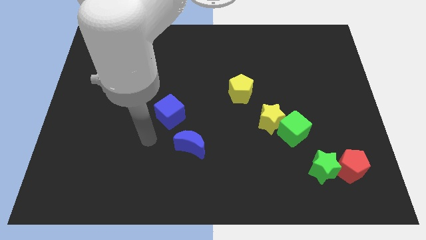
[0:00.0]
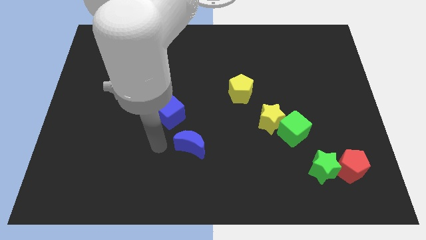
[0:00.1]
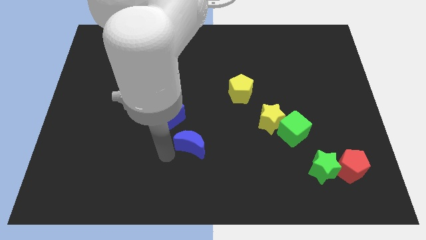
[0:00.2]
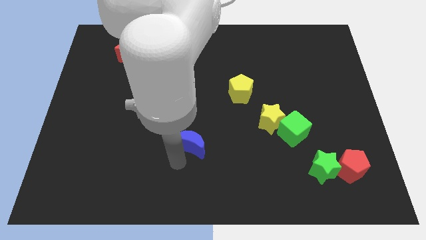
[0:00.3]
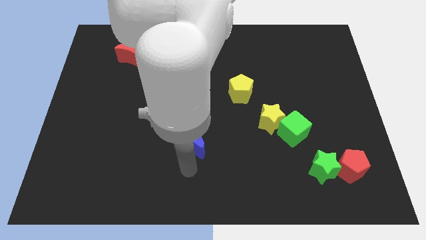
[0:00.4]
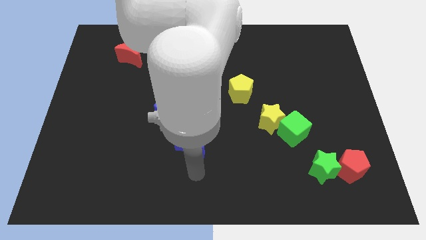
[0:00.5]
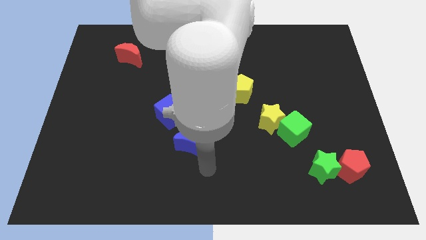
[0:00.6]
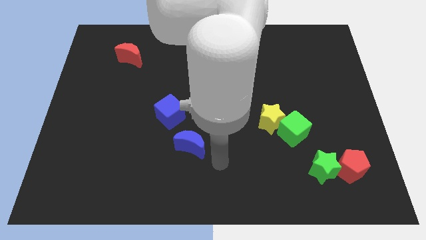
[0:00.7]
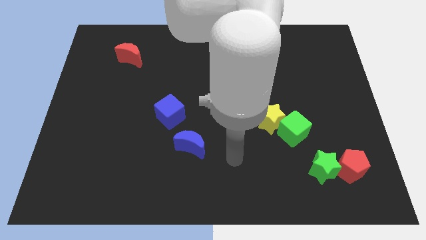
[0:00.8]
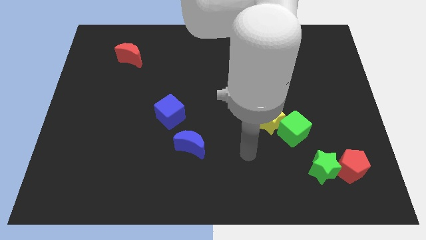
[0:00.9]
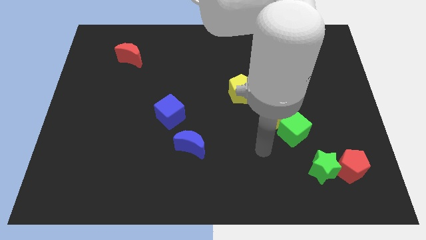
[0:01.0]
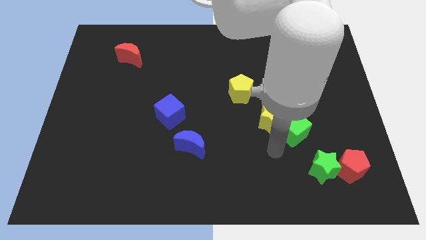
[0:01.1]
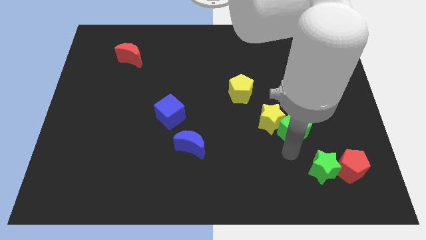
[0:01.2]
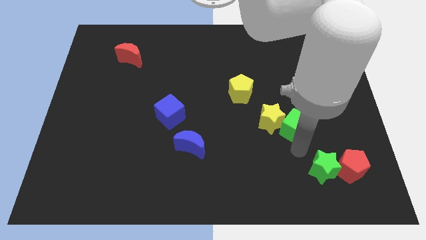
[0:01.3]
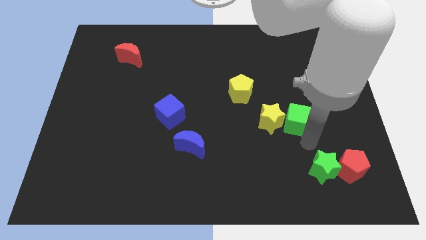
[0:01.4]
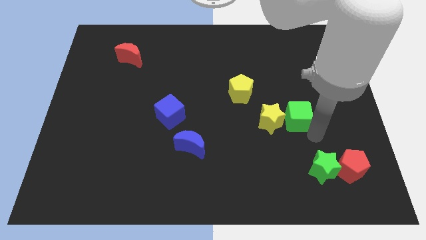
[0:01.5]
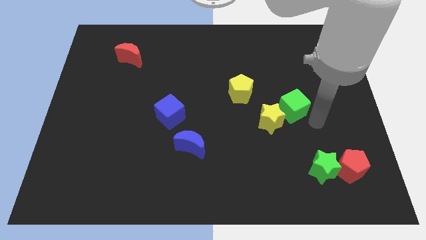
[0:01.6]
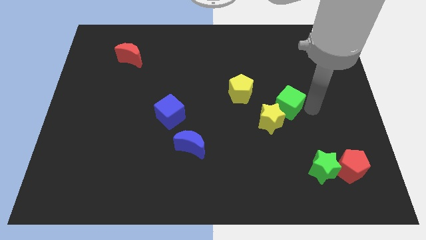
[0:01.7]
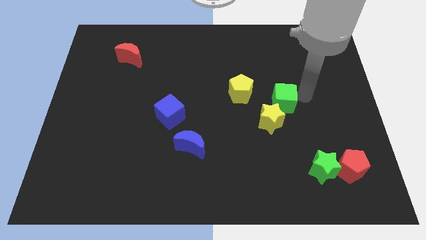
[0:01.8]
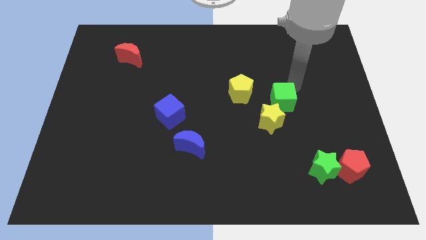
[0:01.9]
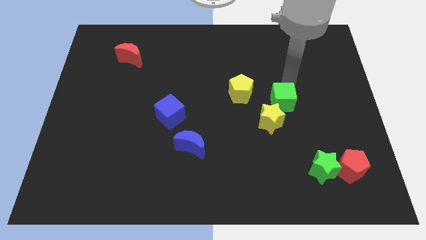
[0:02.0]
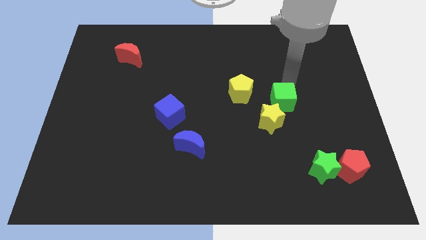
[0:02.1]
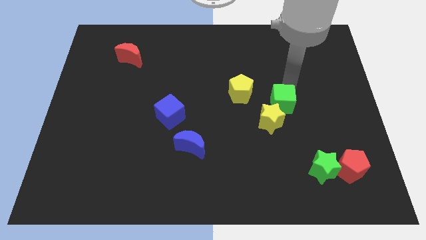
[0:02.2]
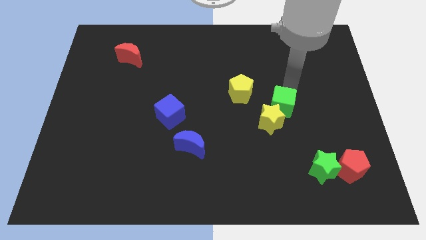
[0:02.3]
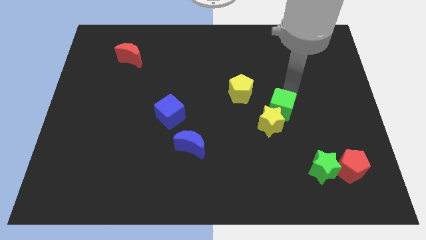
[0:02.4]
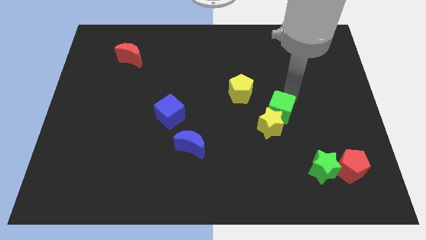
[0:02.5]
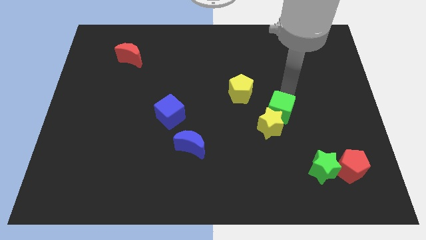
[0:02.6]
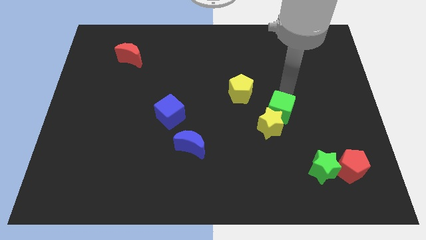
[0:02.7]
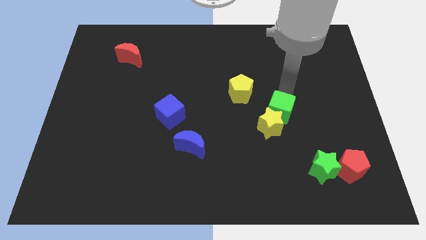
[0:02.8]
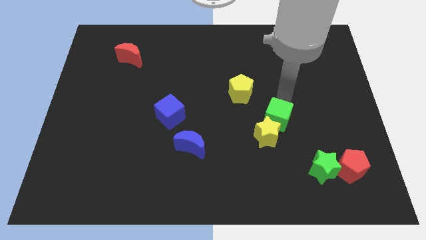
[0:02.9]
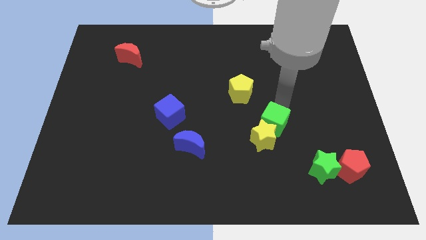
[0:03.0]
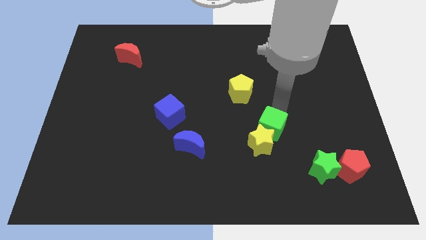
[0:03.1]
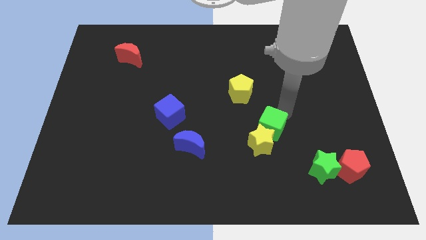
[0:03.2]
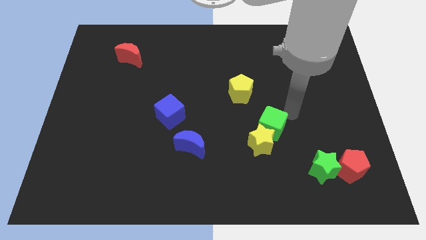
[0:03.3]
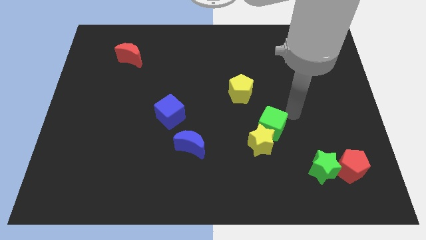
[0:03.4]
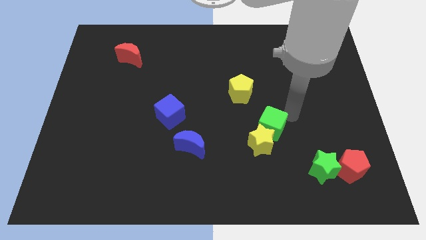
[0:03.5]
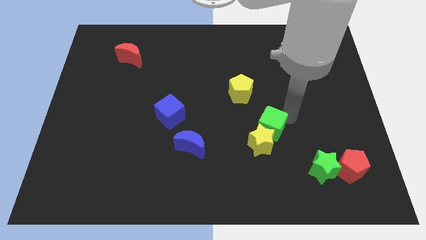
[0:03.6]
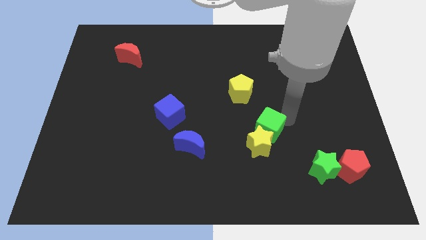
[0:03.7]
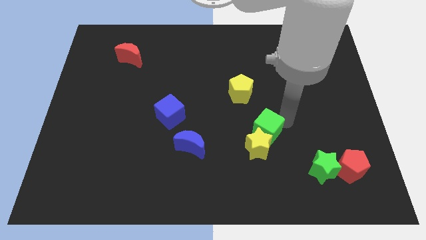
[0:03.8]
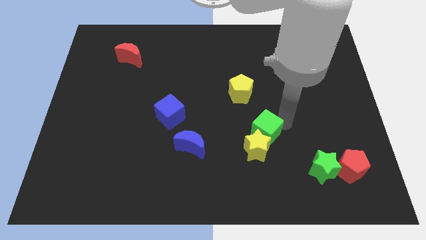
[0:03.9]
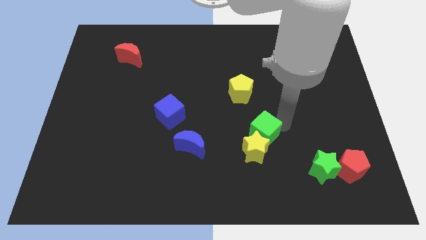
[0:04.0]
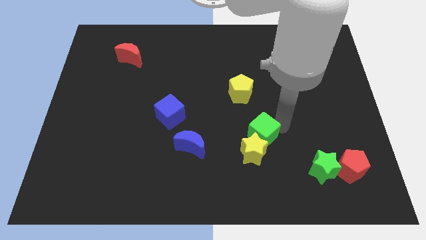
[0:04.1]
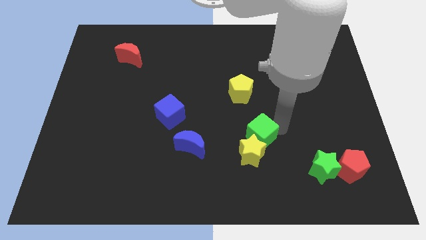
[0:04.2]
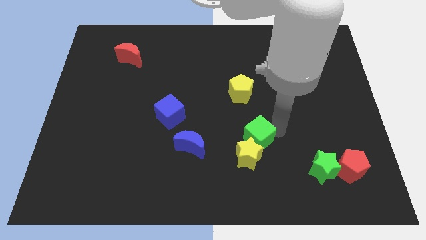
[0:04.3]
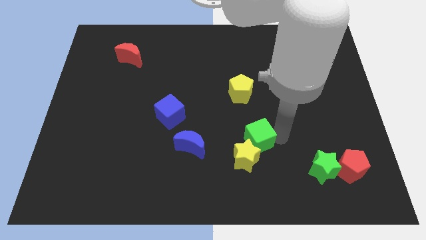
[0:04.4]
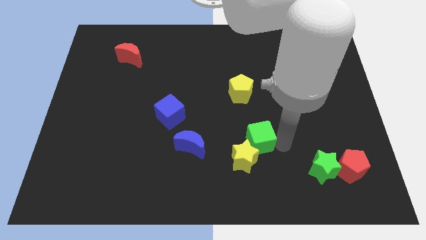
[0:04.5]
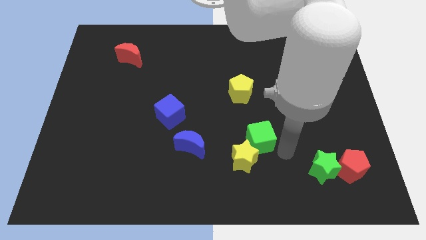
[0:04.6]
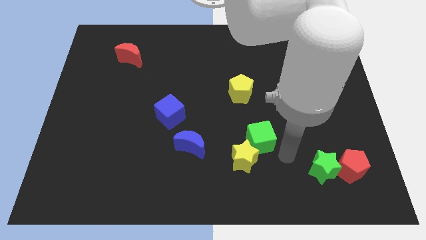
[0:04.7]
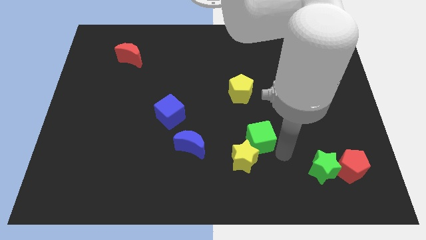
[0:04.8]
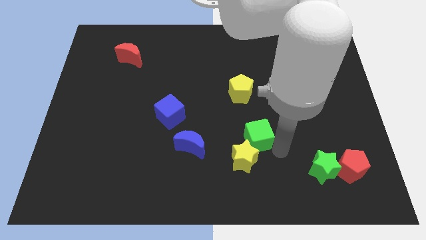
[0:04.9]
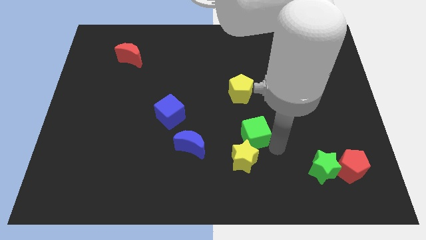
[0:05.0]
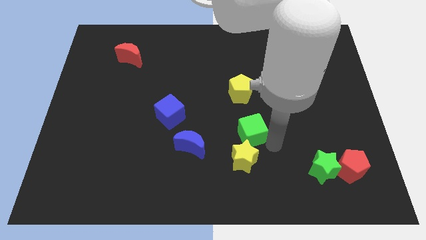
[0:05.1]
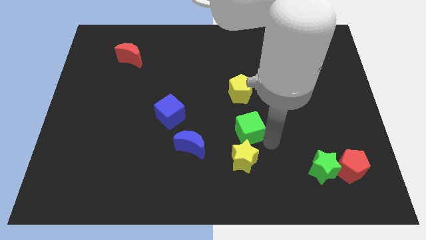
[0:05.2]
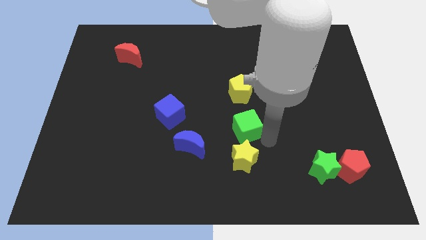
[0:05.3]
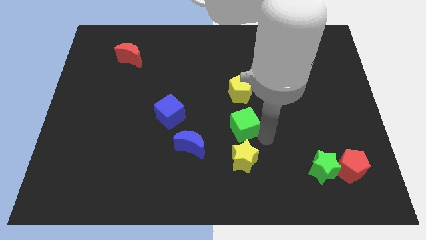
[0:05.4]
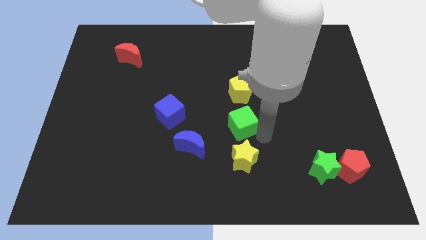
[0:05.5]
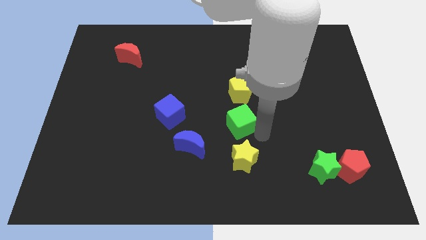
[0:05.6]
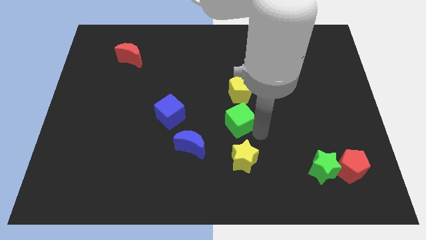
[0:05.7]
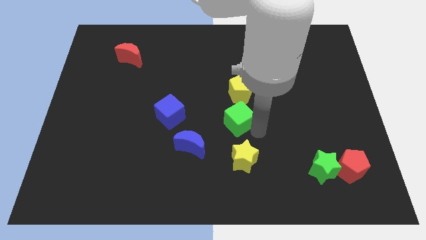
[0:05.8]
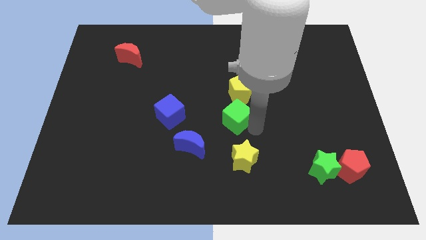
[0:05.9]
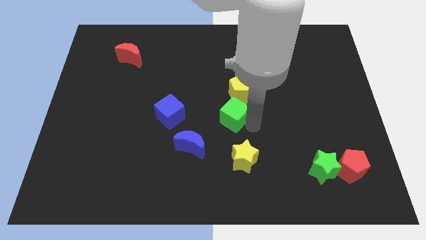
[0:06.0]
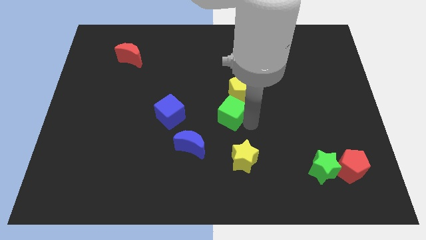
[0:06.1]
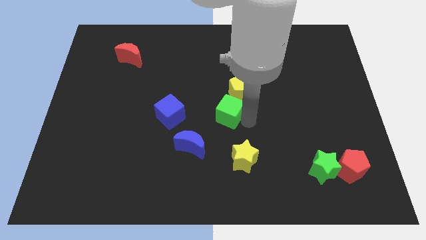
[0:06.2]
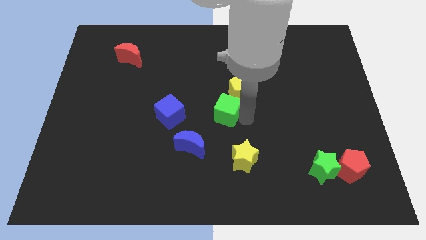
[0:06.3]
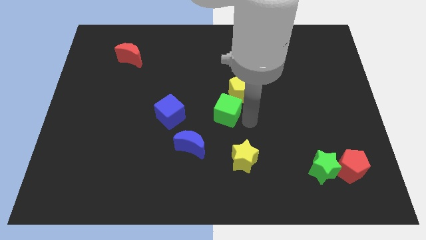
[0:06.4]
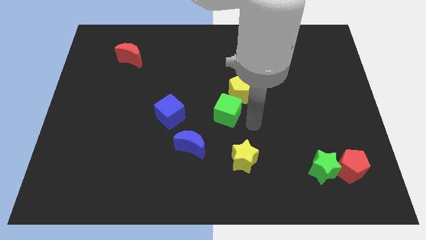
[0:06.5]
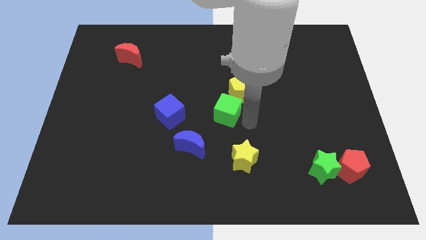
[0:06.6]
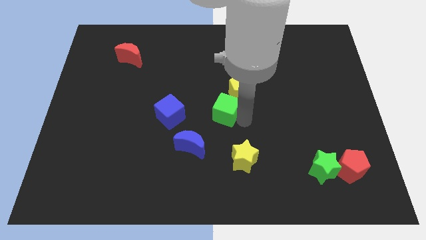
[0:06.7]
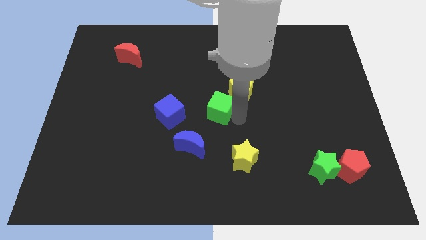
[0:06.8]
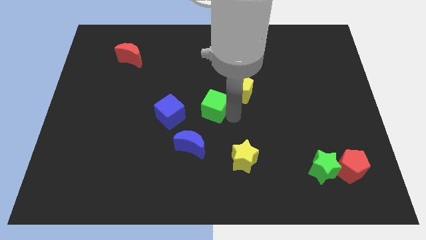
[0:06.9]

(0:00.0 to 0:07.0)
put the green cube to the left side of the yellow pentagon

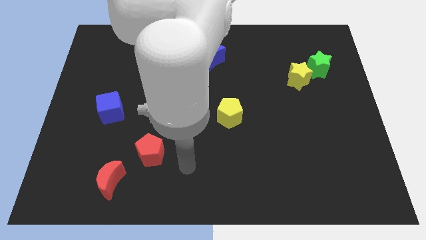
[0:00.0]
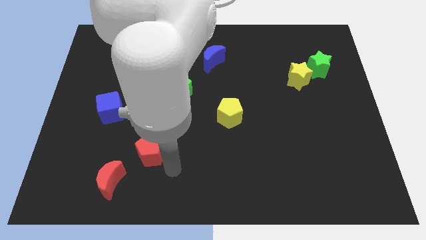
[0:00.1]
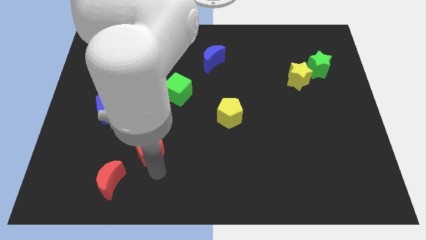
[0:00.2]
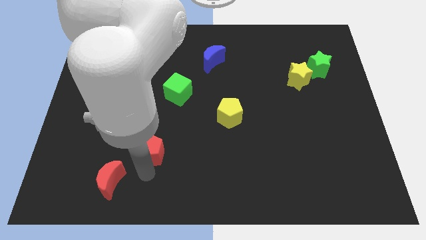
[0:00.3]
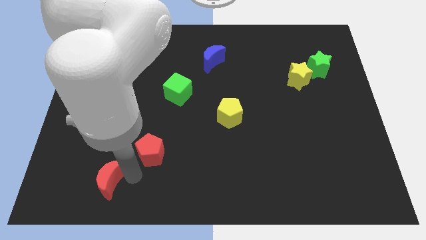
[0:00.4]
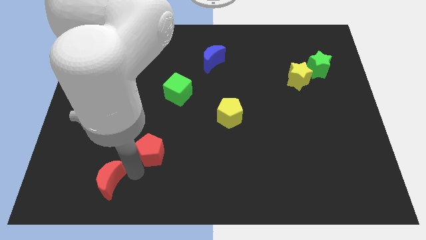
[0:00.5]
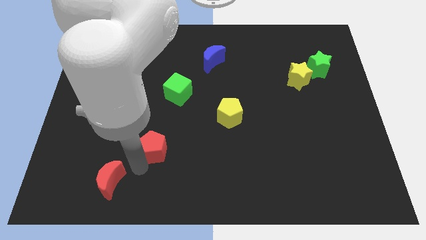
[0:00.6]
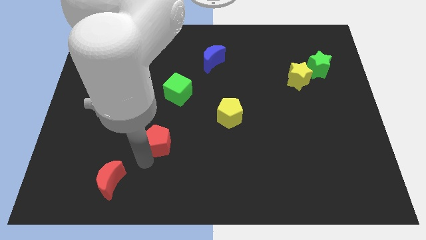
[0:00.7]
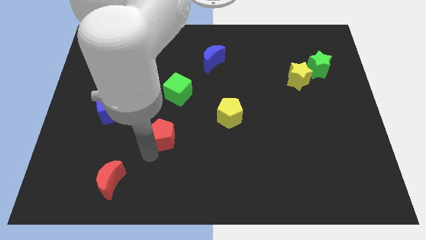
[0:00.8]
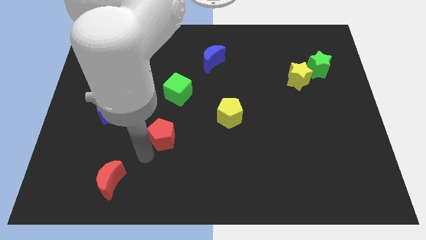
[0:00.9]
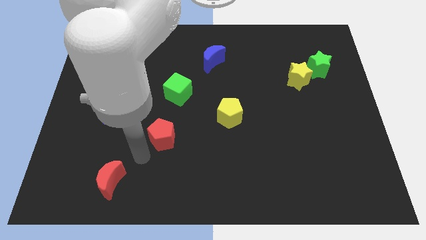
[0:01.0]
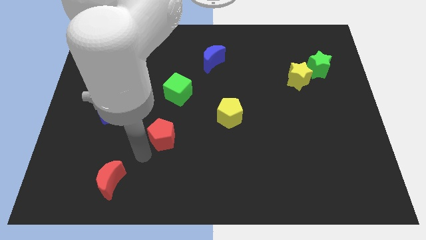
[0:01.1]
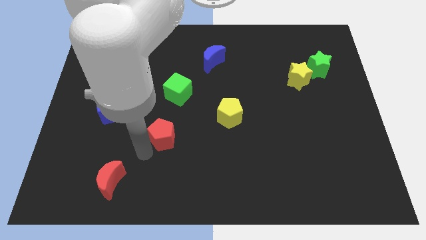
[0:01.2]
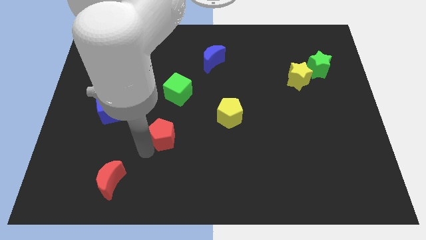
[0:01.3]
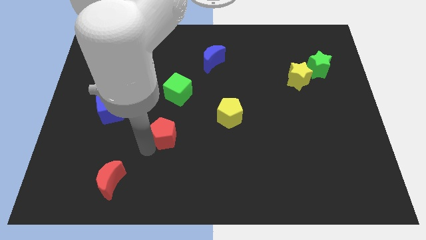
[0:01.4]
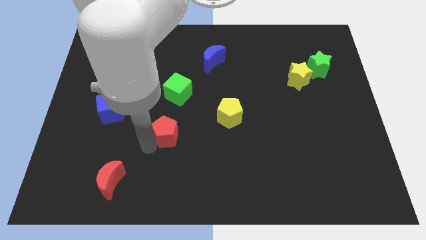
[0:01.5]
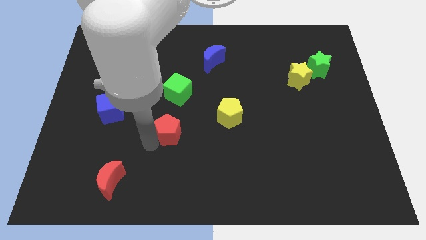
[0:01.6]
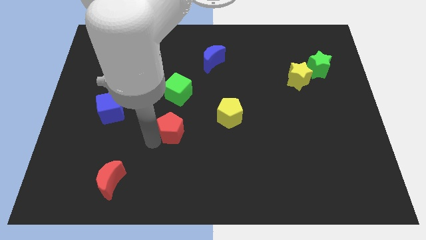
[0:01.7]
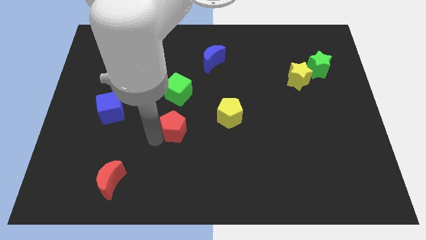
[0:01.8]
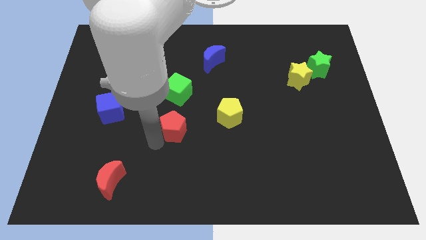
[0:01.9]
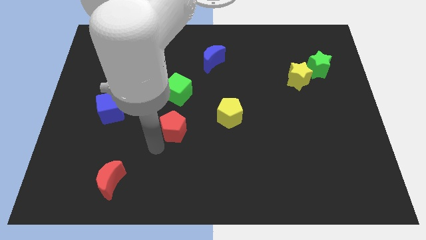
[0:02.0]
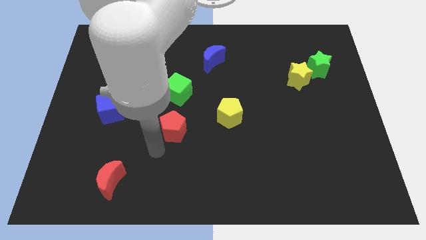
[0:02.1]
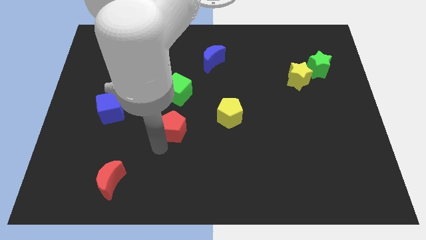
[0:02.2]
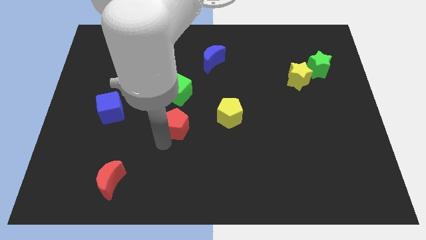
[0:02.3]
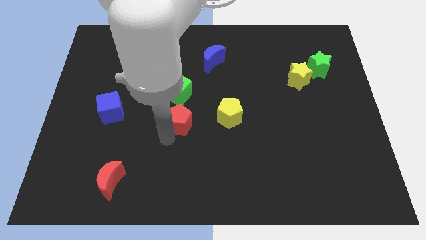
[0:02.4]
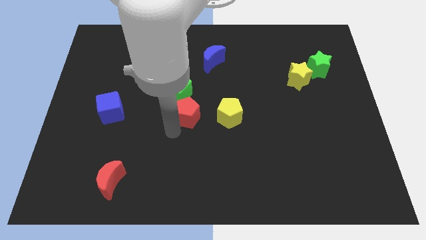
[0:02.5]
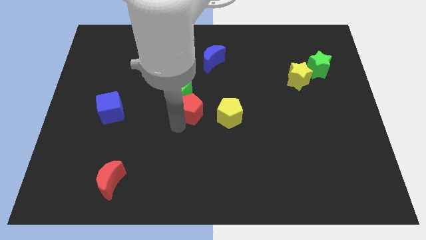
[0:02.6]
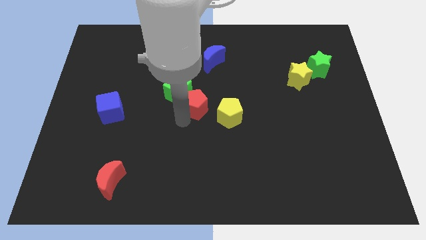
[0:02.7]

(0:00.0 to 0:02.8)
slide the red pentagon to the top left of the yellow pentagon
